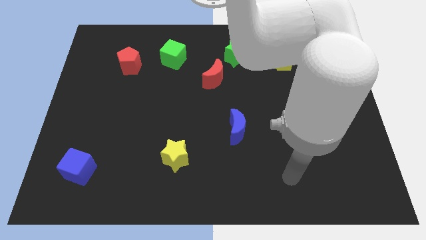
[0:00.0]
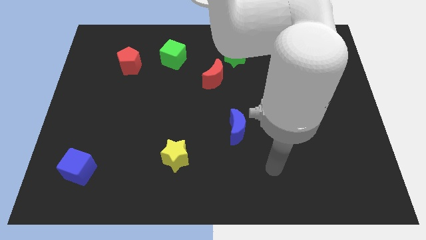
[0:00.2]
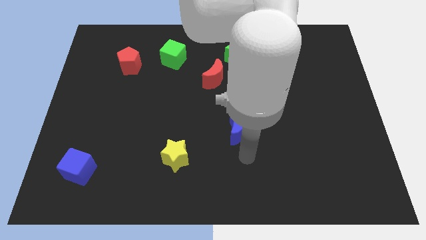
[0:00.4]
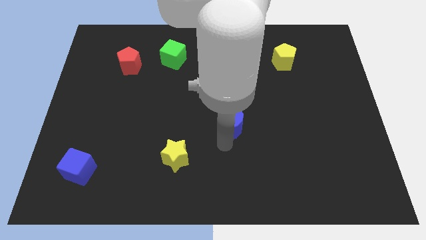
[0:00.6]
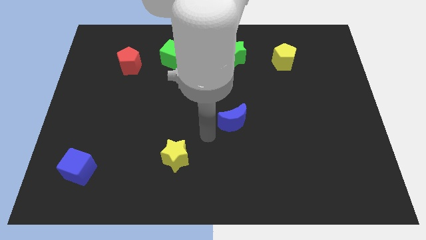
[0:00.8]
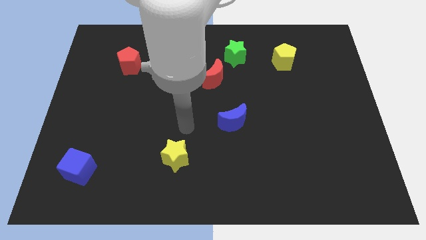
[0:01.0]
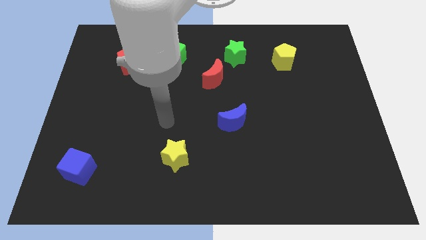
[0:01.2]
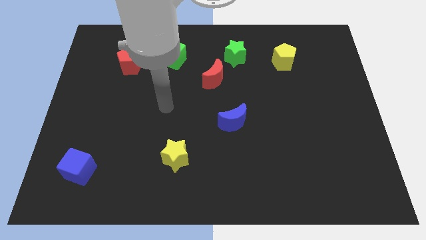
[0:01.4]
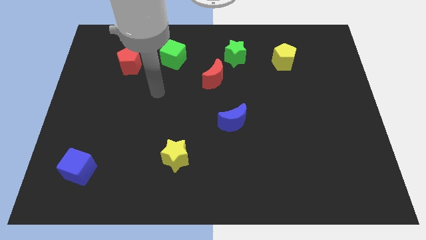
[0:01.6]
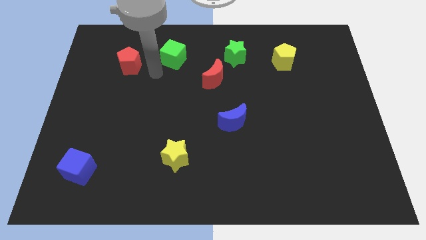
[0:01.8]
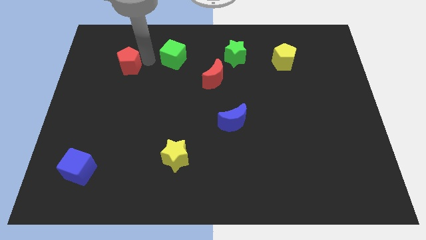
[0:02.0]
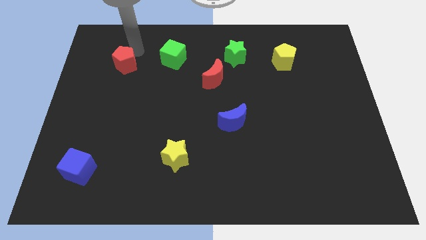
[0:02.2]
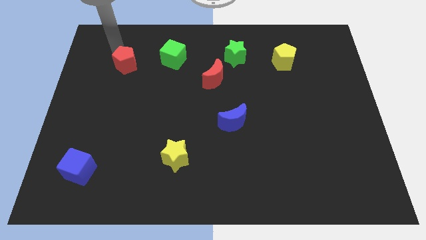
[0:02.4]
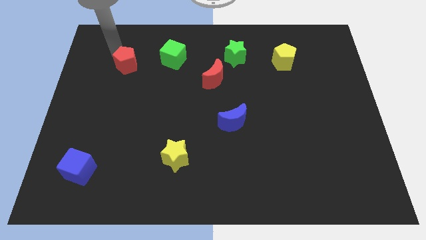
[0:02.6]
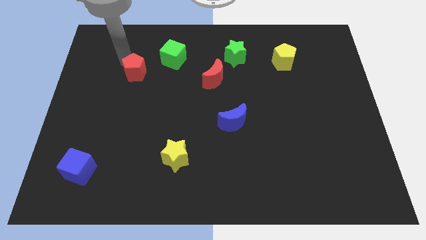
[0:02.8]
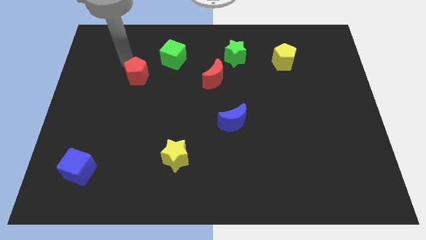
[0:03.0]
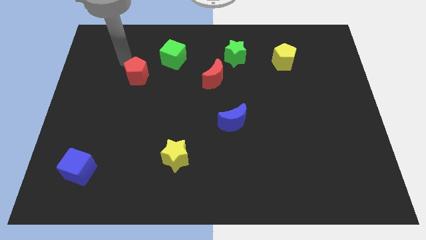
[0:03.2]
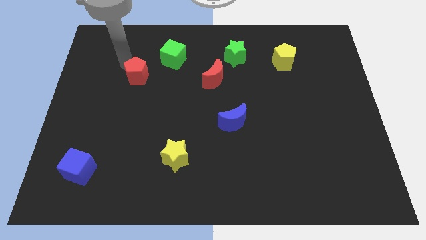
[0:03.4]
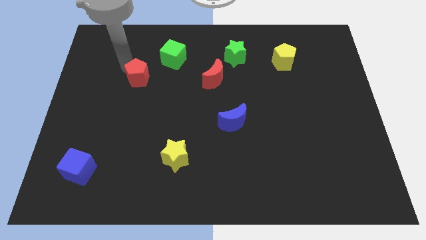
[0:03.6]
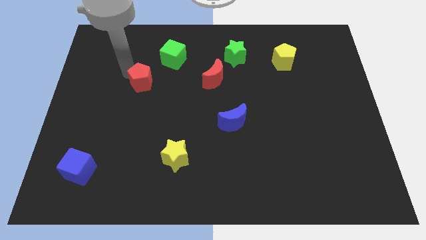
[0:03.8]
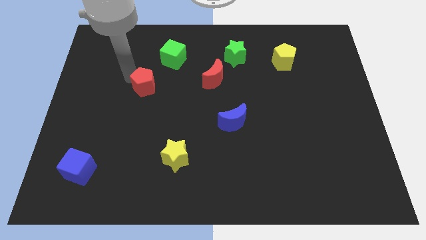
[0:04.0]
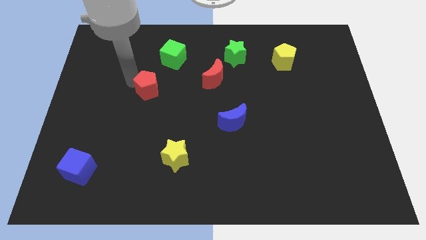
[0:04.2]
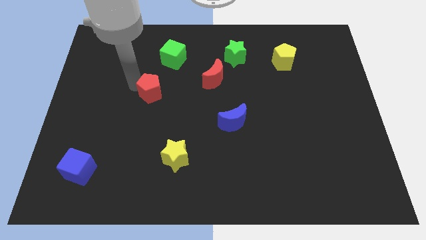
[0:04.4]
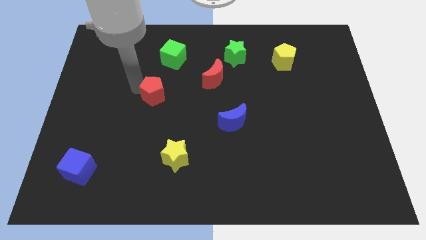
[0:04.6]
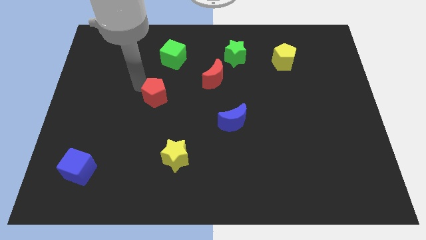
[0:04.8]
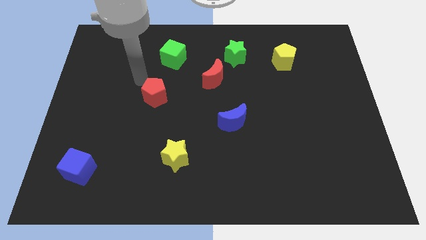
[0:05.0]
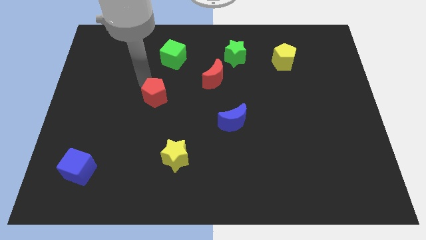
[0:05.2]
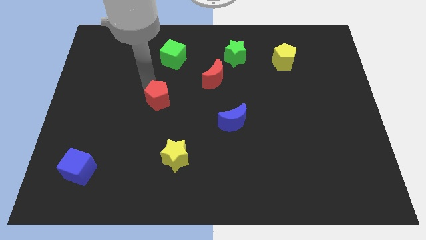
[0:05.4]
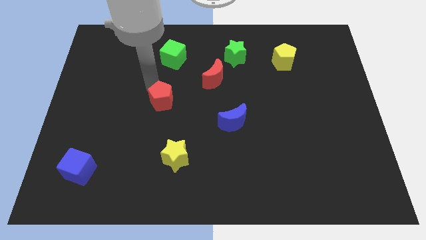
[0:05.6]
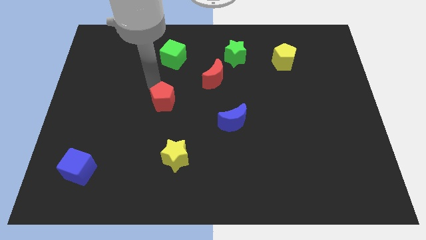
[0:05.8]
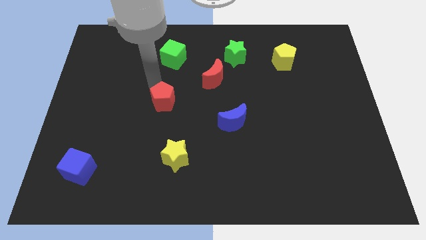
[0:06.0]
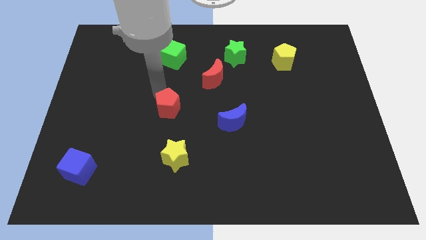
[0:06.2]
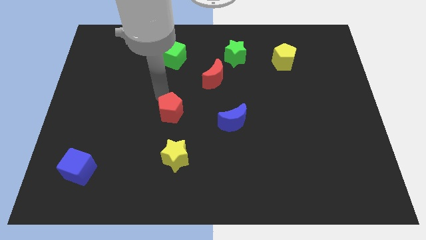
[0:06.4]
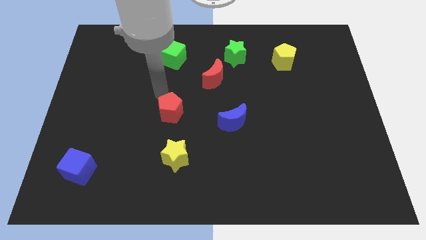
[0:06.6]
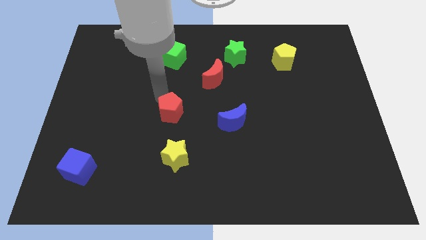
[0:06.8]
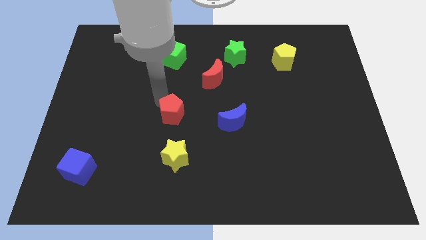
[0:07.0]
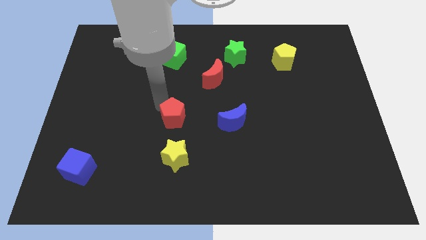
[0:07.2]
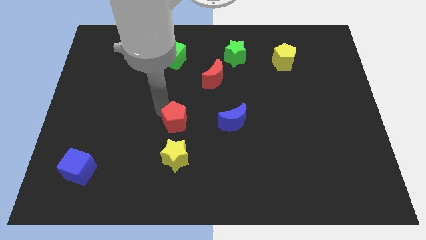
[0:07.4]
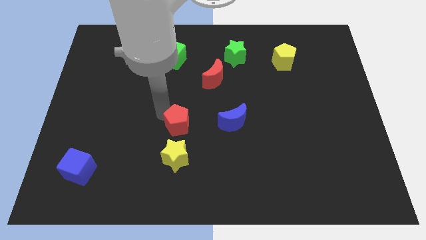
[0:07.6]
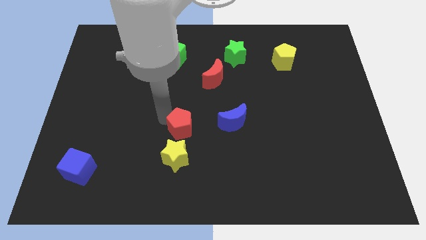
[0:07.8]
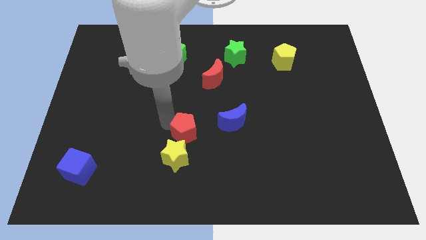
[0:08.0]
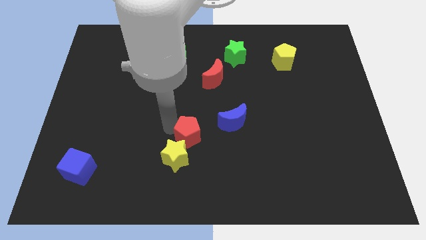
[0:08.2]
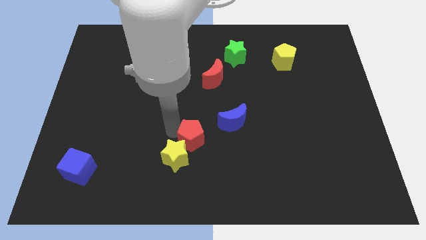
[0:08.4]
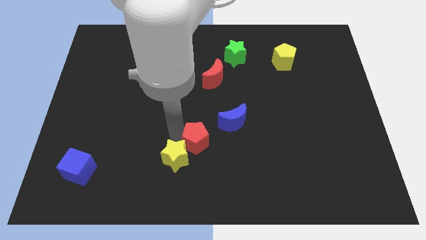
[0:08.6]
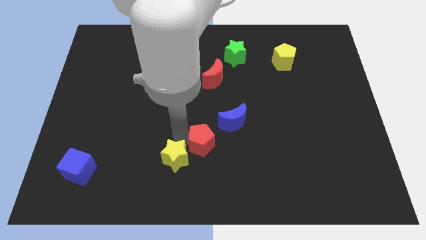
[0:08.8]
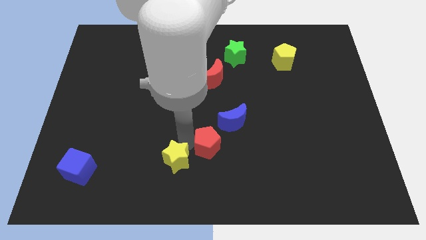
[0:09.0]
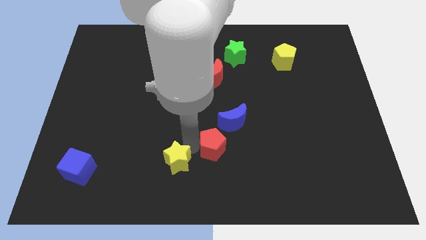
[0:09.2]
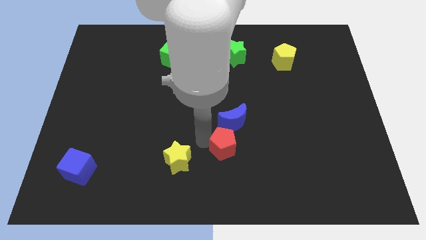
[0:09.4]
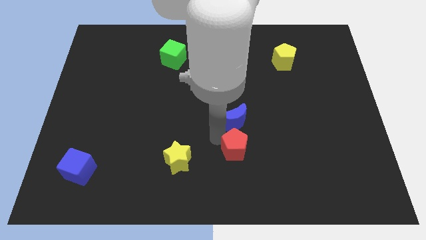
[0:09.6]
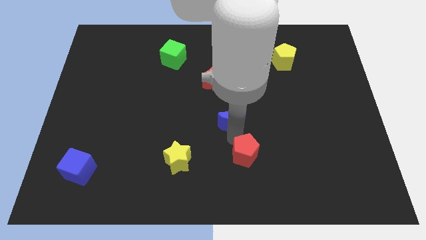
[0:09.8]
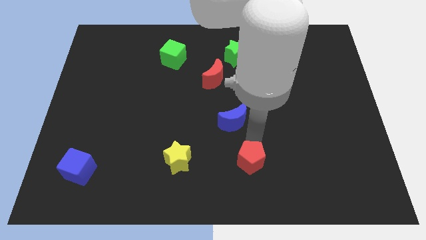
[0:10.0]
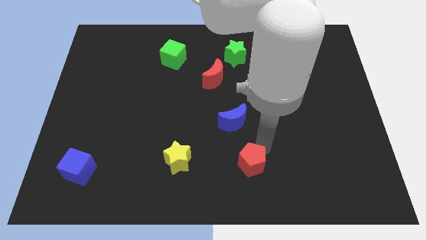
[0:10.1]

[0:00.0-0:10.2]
move the red pentagon to the bottom

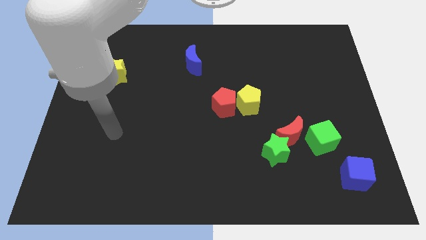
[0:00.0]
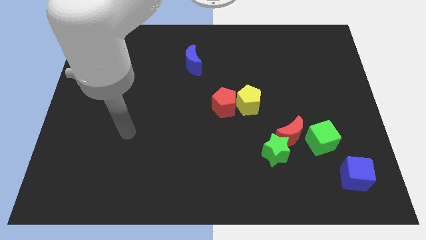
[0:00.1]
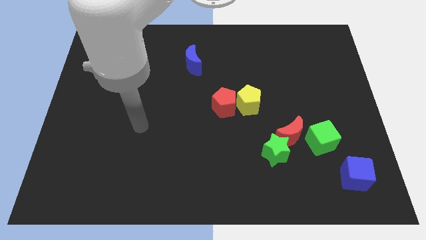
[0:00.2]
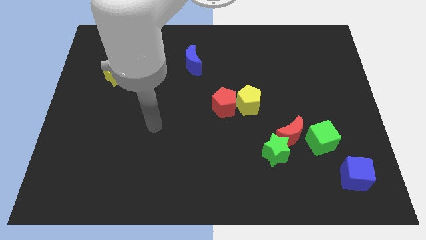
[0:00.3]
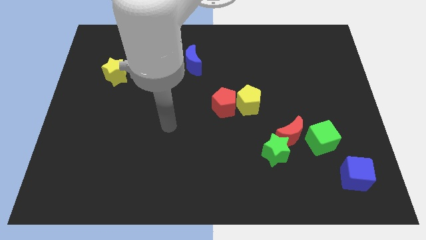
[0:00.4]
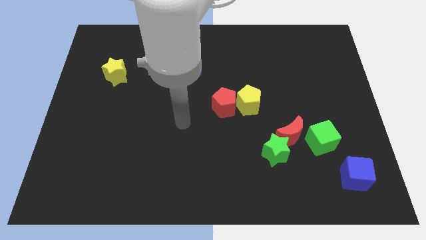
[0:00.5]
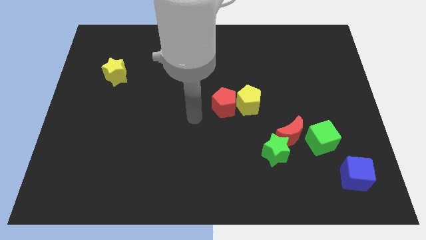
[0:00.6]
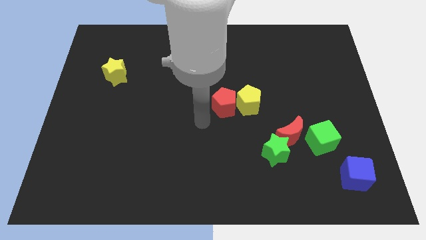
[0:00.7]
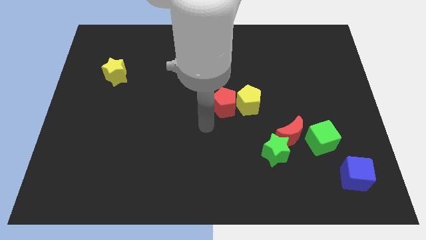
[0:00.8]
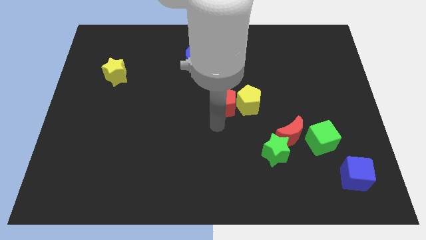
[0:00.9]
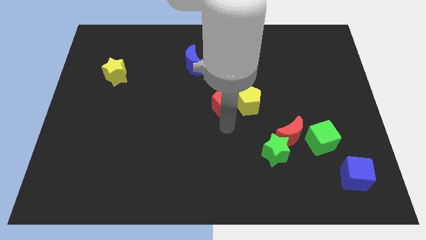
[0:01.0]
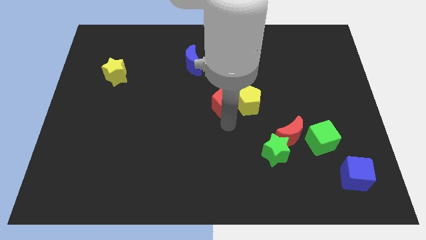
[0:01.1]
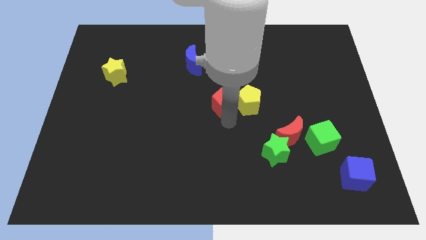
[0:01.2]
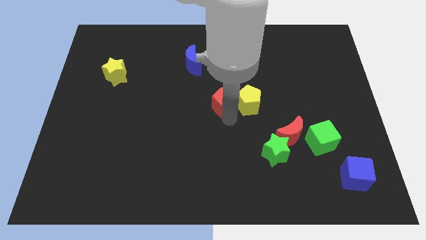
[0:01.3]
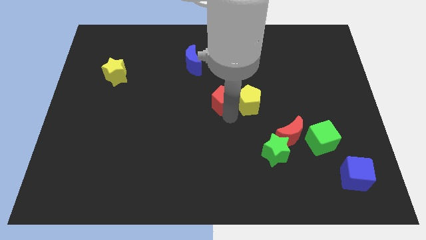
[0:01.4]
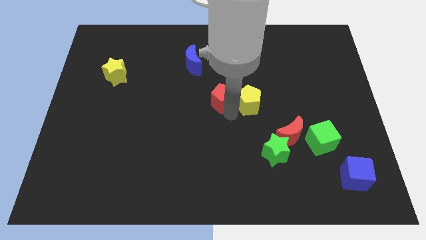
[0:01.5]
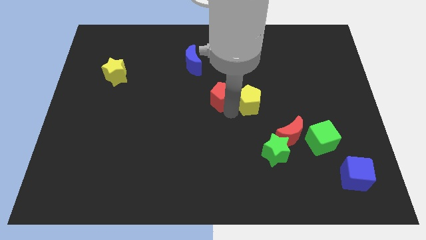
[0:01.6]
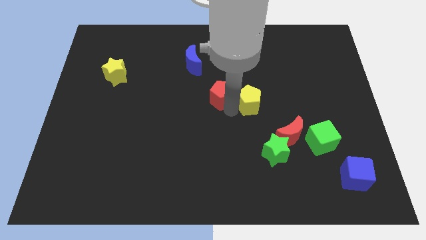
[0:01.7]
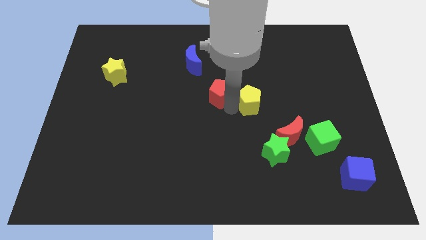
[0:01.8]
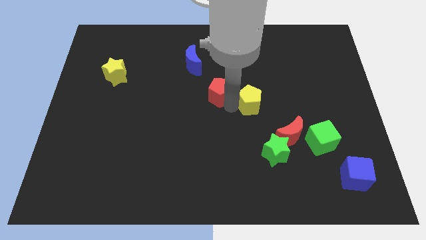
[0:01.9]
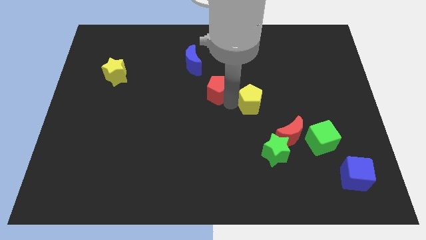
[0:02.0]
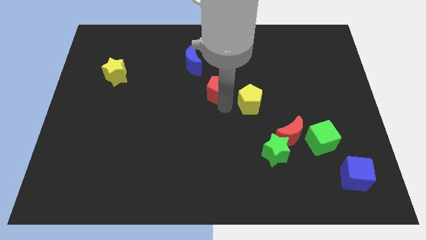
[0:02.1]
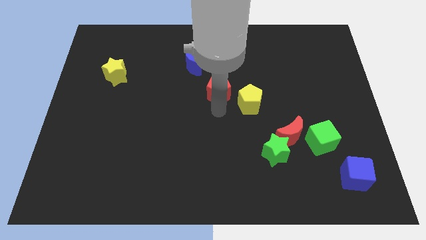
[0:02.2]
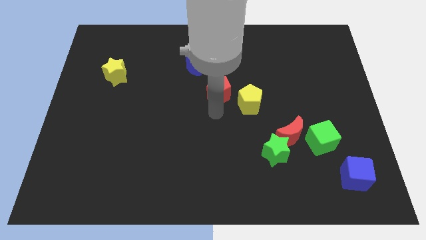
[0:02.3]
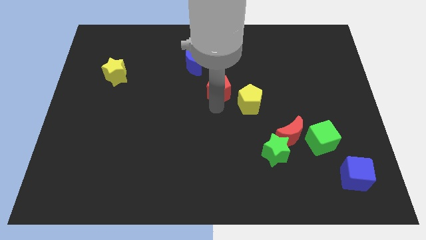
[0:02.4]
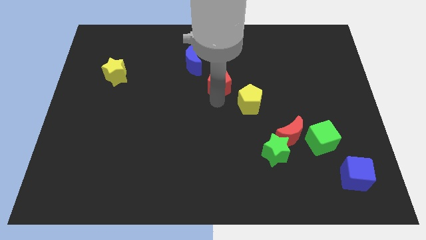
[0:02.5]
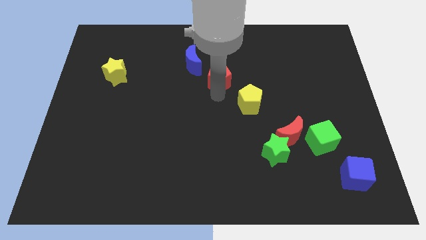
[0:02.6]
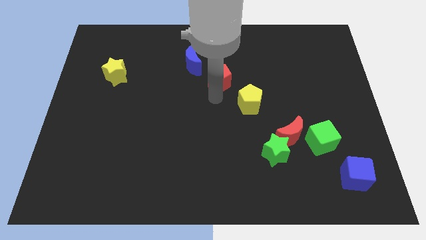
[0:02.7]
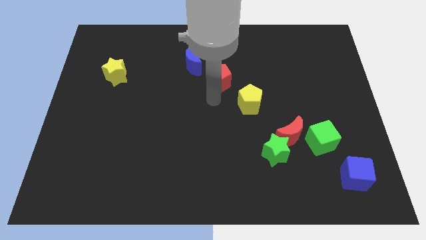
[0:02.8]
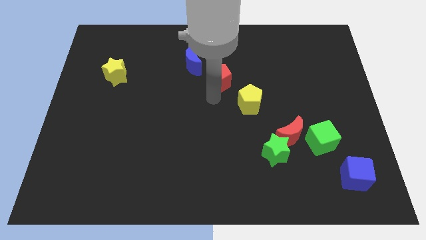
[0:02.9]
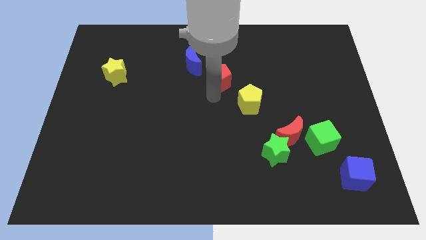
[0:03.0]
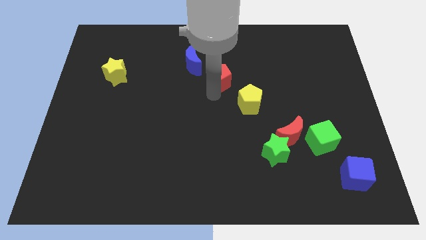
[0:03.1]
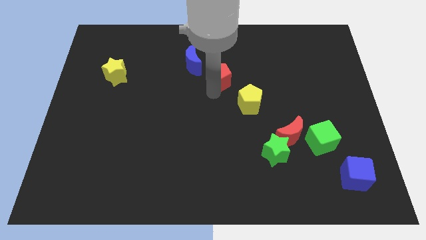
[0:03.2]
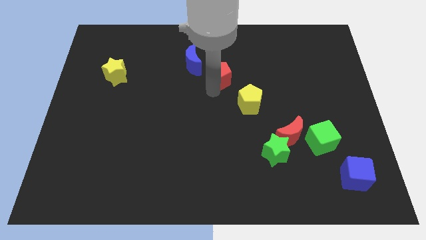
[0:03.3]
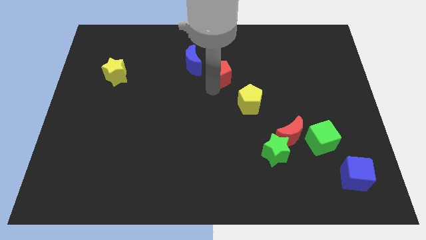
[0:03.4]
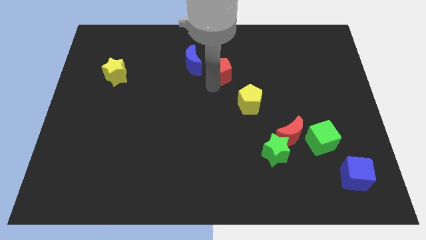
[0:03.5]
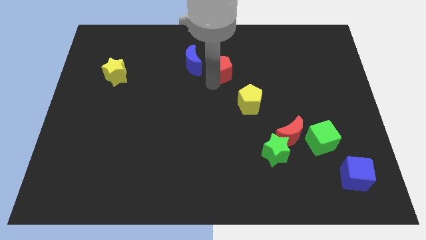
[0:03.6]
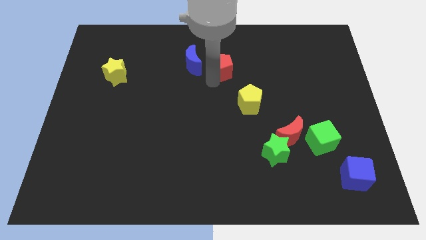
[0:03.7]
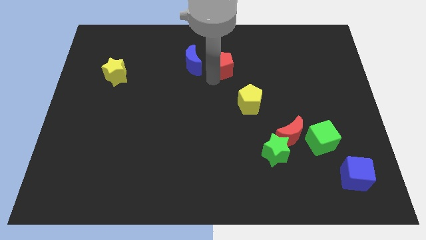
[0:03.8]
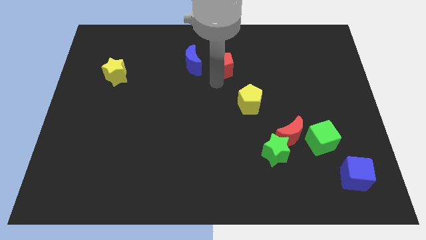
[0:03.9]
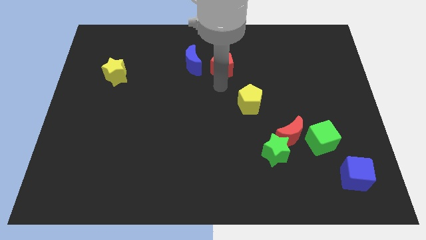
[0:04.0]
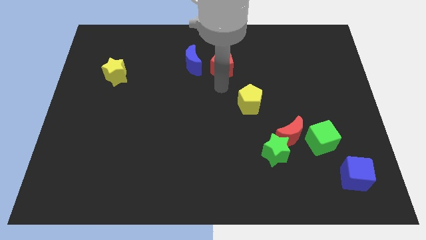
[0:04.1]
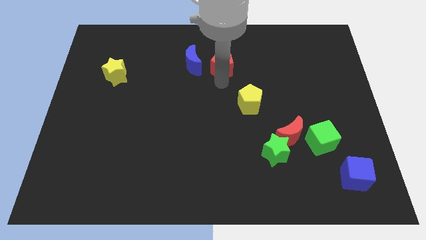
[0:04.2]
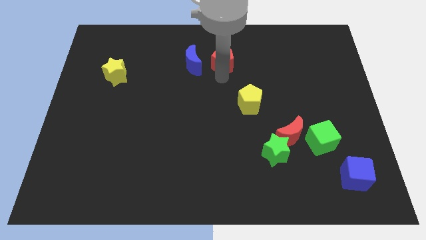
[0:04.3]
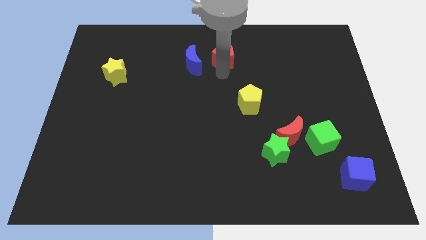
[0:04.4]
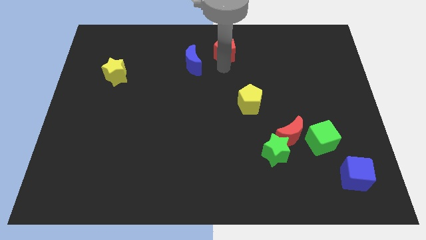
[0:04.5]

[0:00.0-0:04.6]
push the red pentagon to the top
